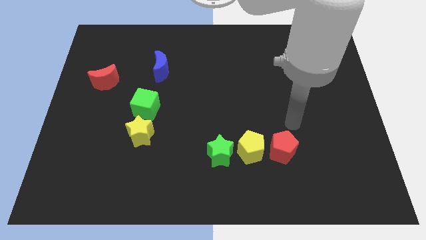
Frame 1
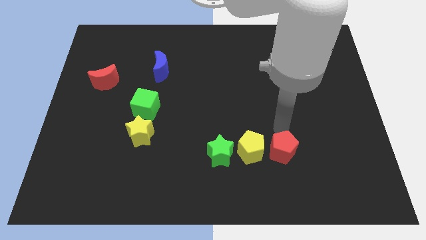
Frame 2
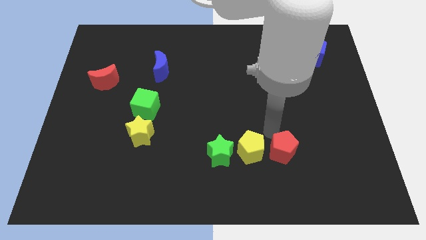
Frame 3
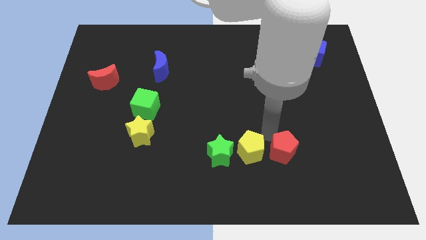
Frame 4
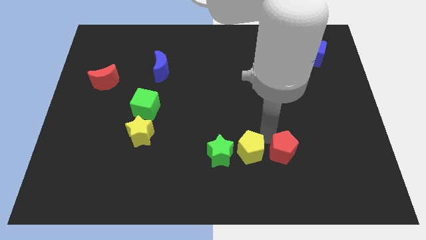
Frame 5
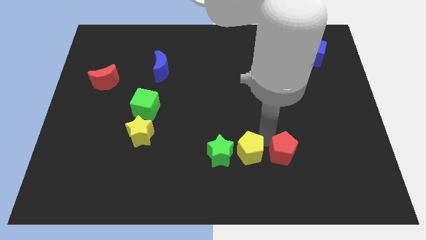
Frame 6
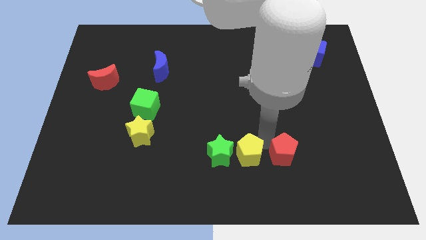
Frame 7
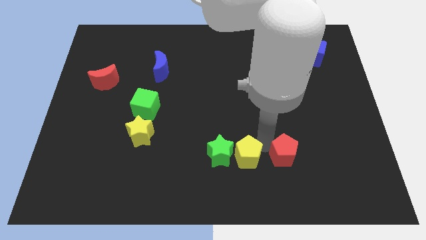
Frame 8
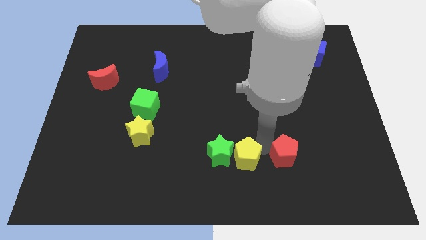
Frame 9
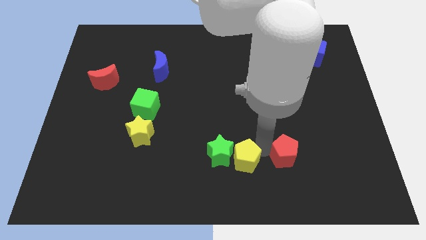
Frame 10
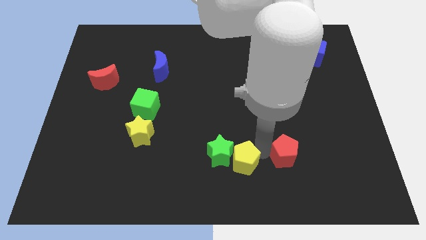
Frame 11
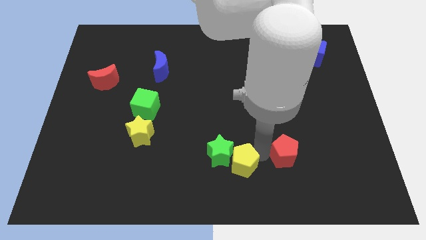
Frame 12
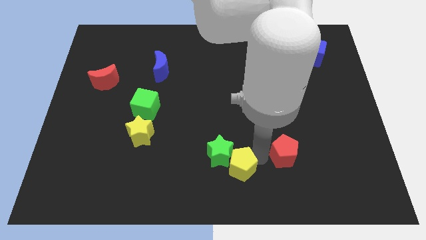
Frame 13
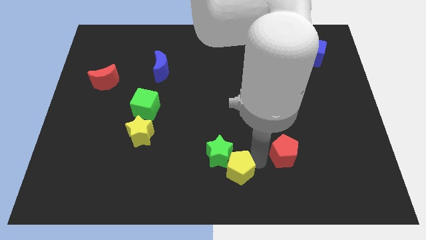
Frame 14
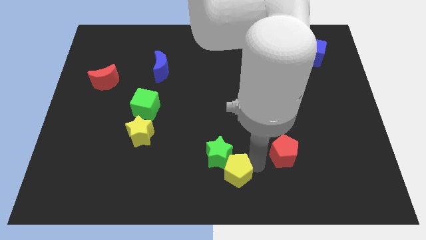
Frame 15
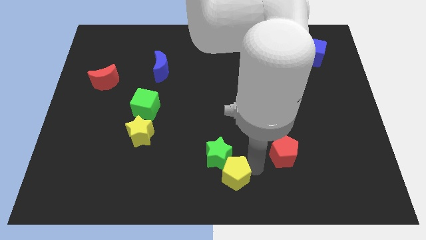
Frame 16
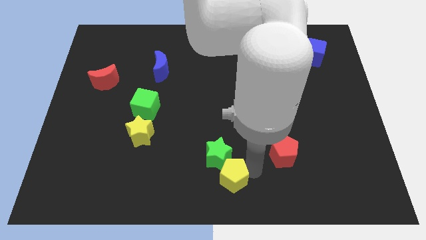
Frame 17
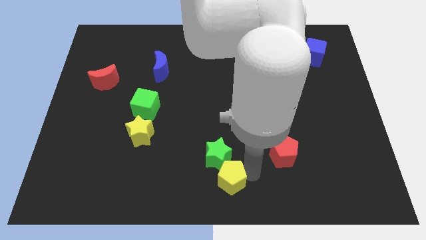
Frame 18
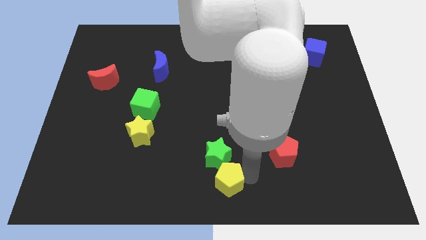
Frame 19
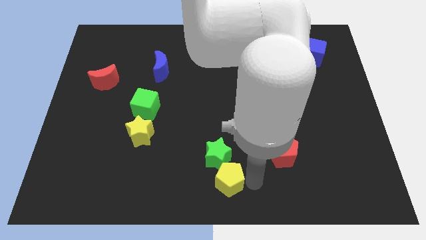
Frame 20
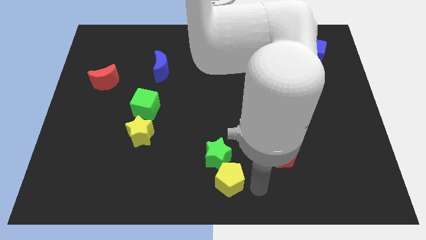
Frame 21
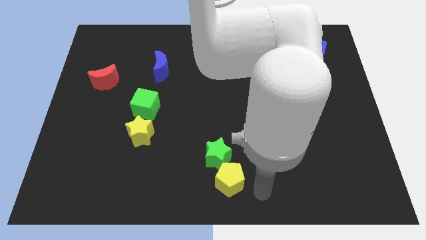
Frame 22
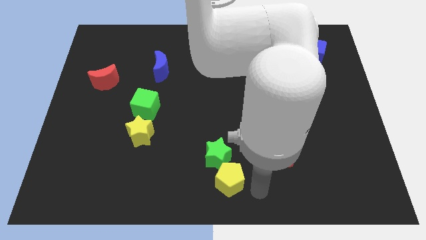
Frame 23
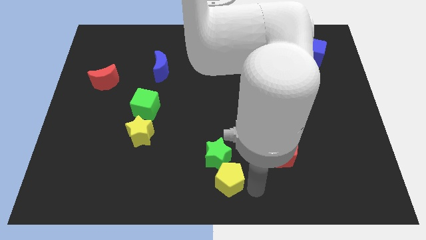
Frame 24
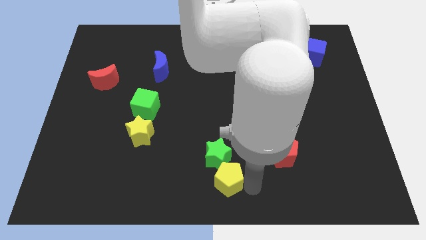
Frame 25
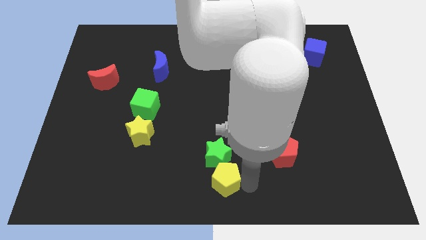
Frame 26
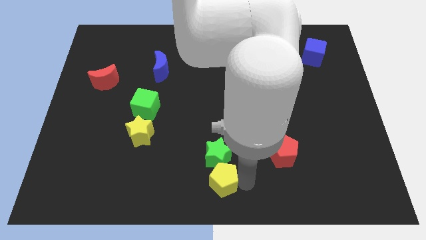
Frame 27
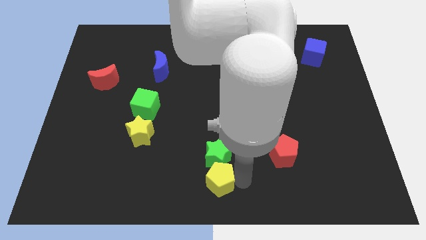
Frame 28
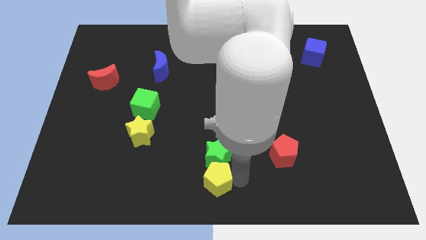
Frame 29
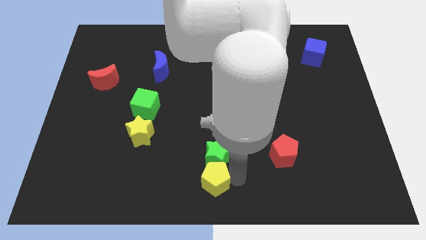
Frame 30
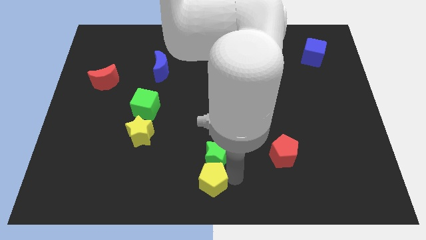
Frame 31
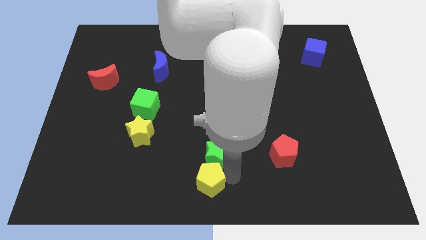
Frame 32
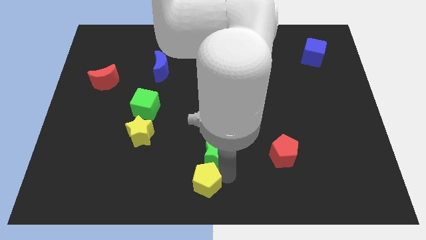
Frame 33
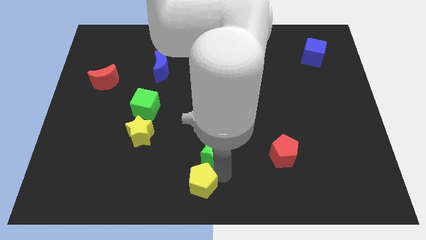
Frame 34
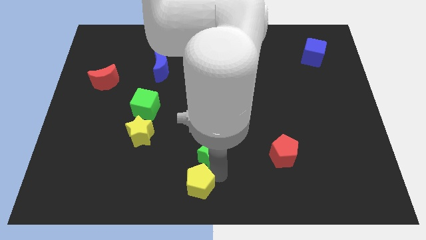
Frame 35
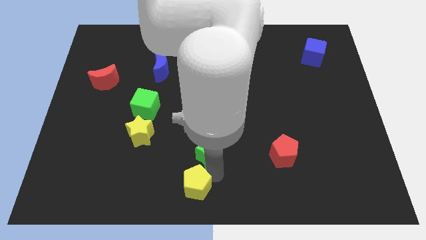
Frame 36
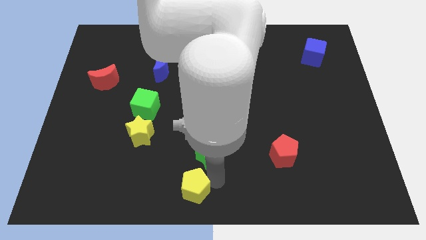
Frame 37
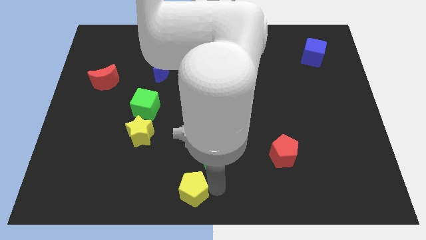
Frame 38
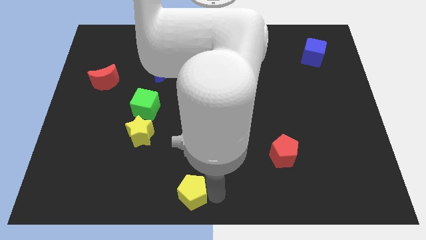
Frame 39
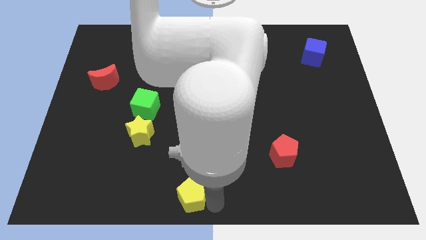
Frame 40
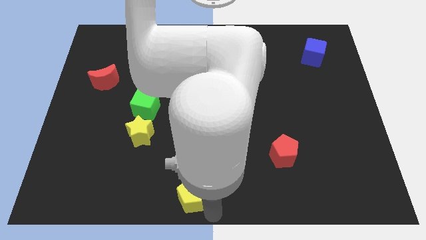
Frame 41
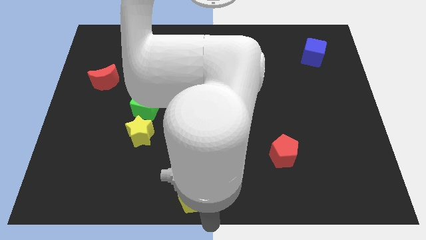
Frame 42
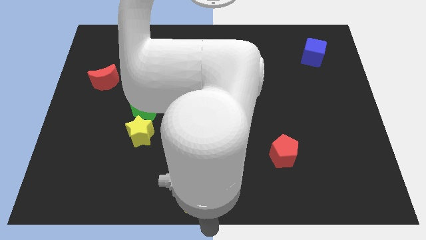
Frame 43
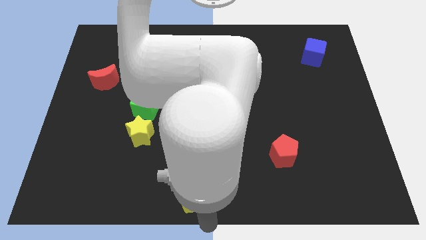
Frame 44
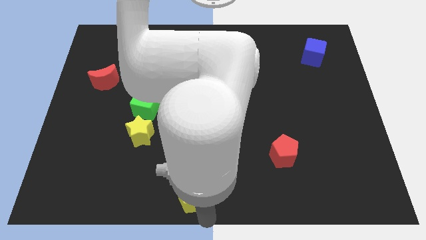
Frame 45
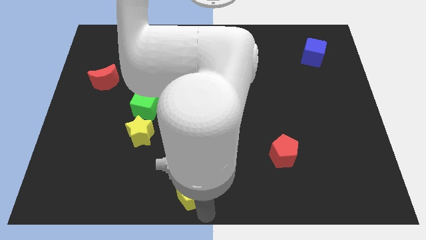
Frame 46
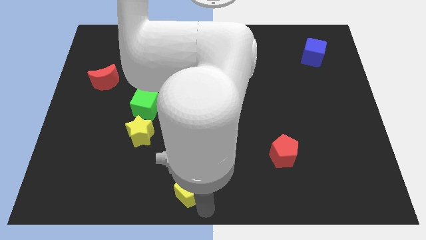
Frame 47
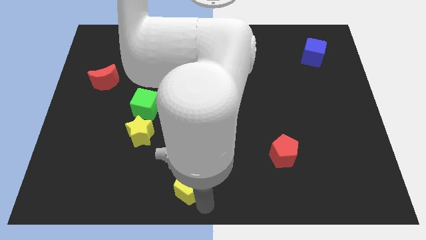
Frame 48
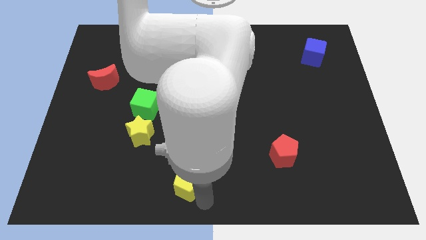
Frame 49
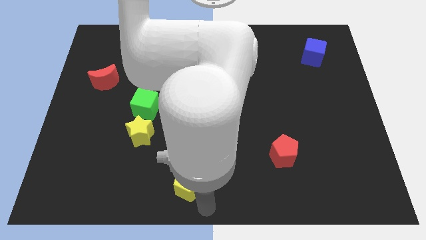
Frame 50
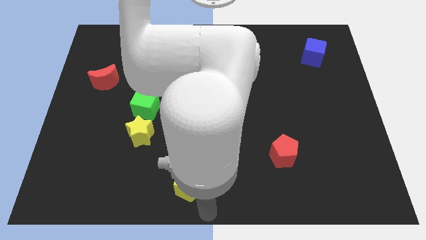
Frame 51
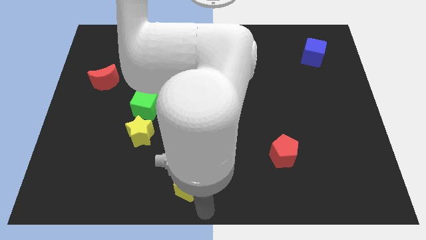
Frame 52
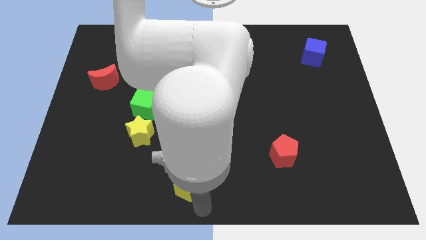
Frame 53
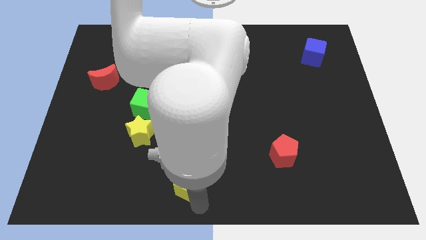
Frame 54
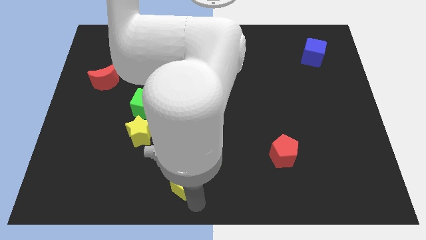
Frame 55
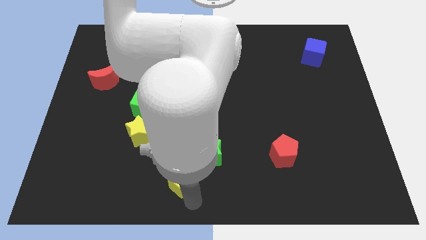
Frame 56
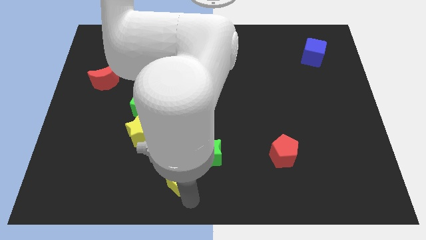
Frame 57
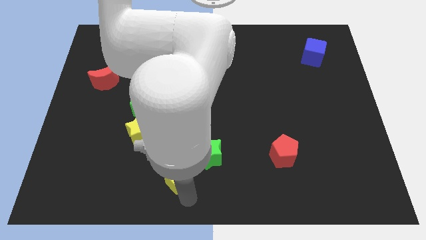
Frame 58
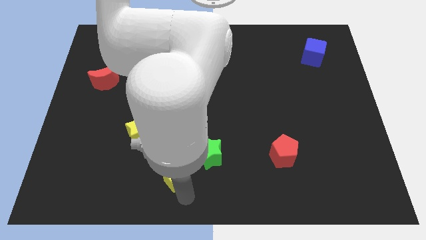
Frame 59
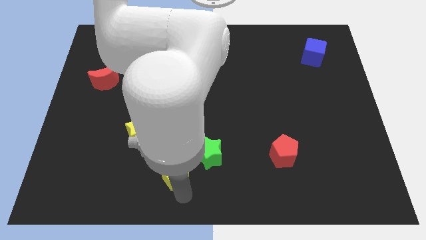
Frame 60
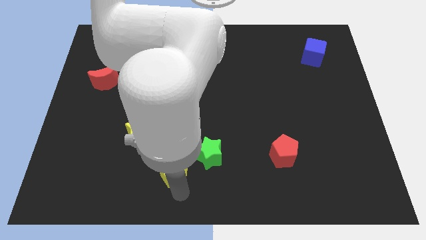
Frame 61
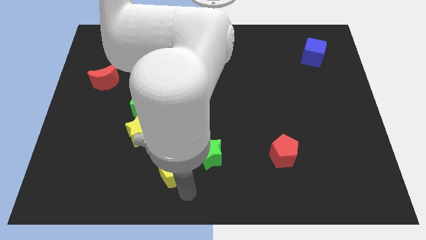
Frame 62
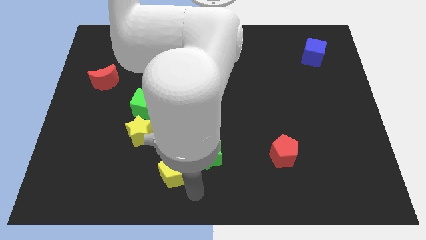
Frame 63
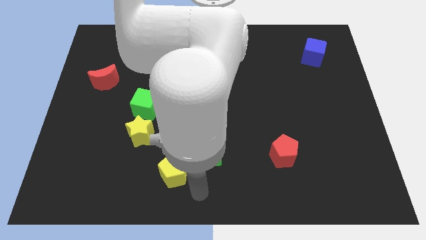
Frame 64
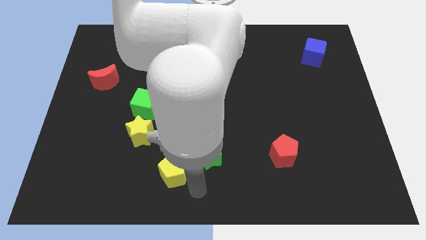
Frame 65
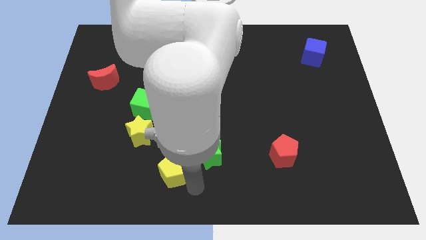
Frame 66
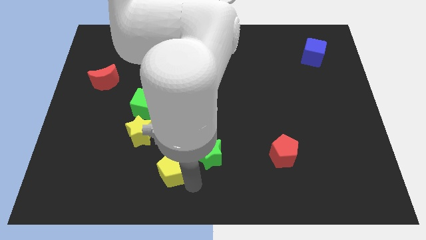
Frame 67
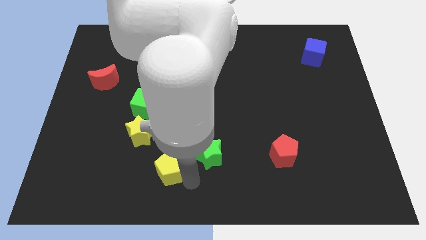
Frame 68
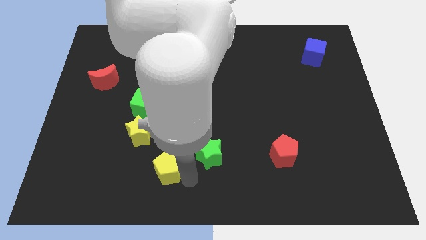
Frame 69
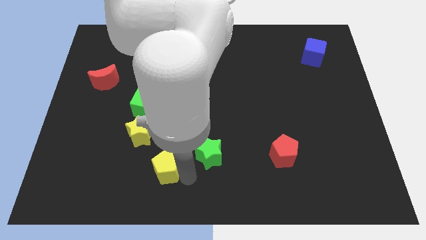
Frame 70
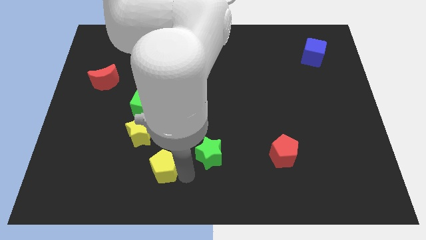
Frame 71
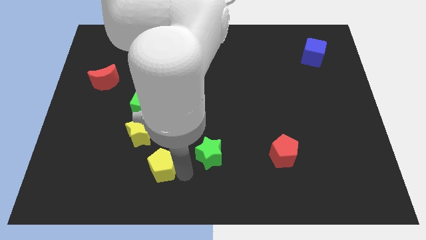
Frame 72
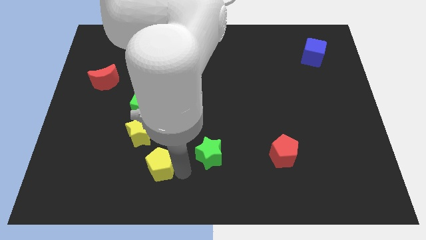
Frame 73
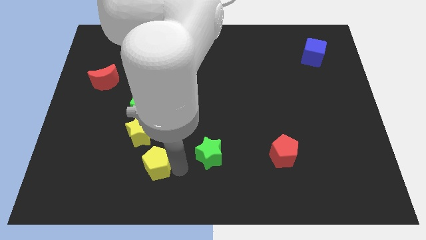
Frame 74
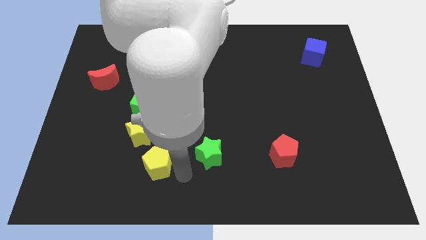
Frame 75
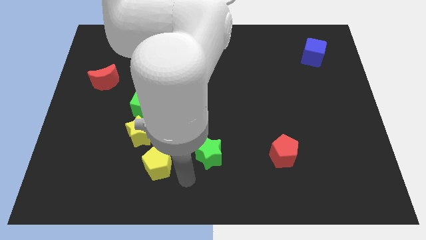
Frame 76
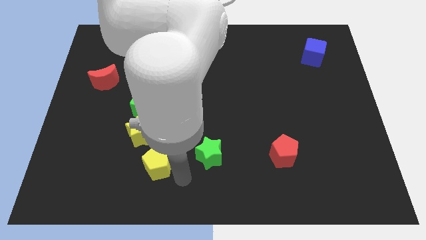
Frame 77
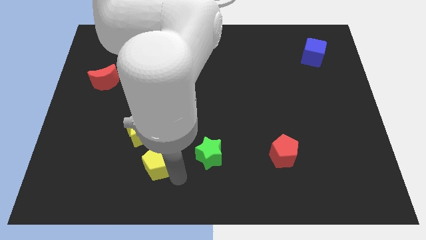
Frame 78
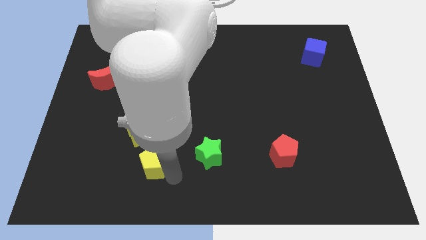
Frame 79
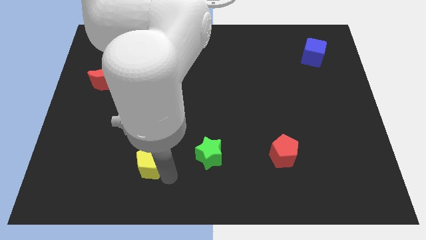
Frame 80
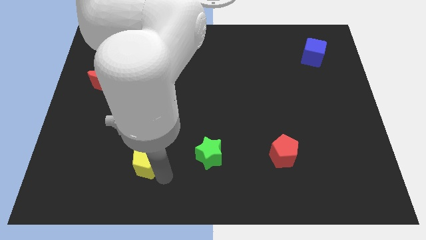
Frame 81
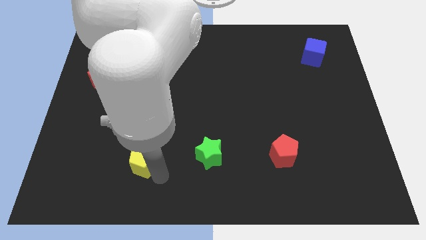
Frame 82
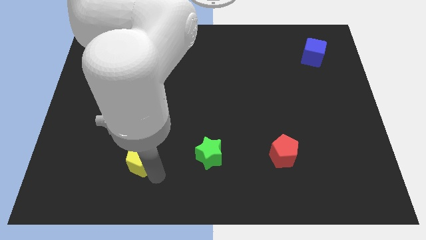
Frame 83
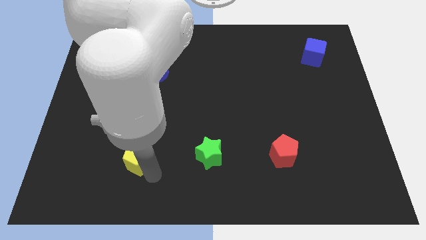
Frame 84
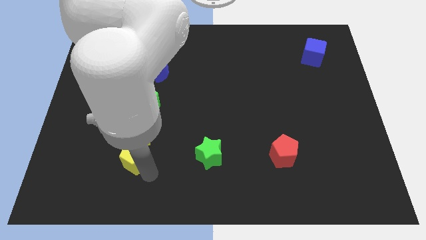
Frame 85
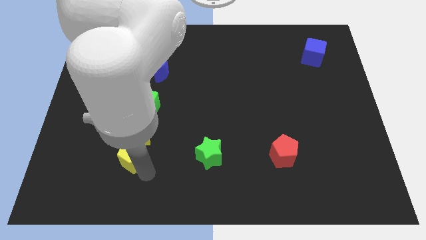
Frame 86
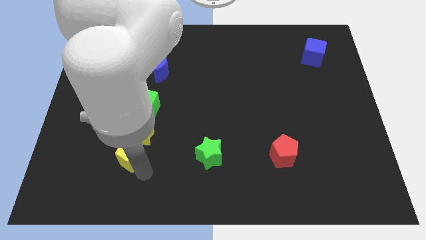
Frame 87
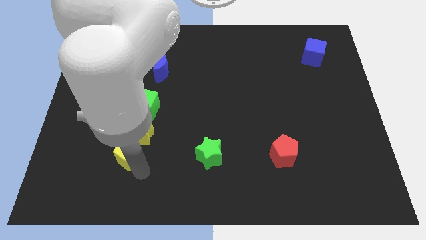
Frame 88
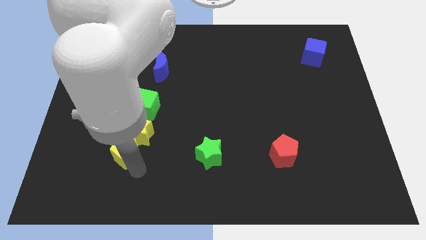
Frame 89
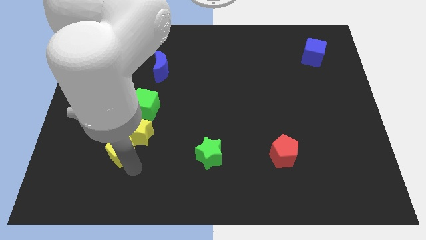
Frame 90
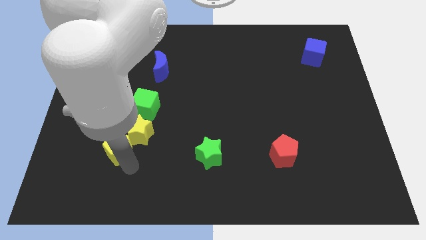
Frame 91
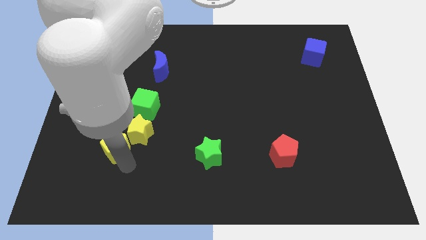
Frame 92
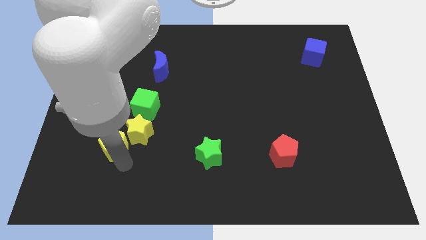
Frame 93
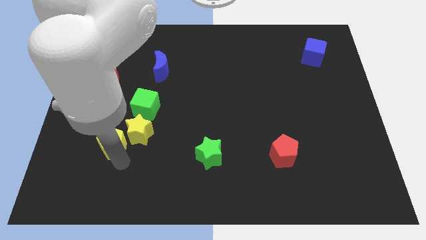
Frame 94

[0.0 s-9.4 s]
move the yellow pentagon diagonally down and to the left of the green cube
